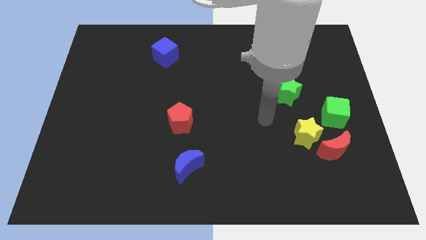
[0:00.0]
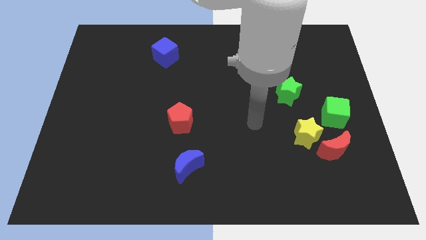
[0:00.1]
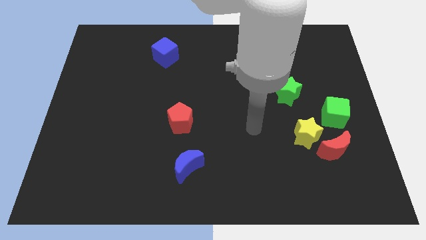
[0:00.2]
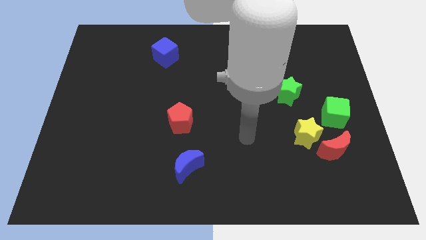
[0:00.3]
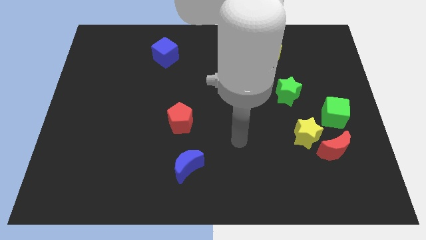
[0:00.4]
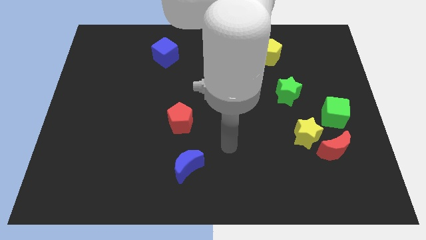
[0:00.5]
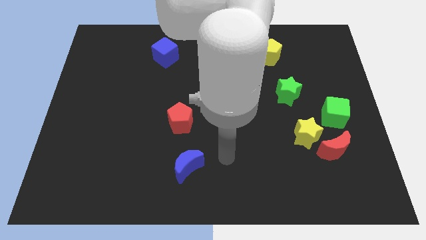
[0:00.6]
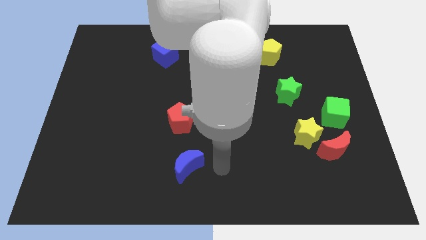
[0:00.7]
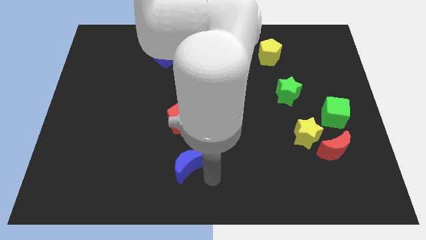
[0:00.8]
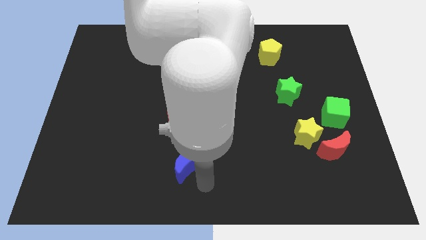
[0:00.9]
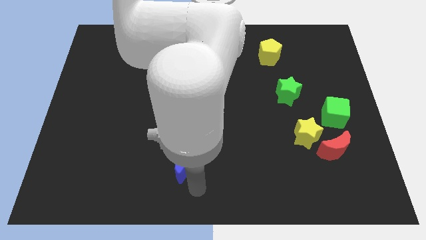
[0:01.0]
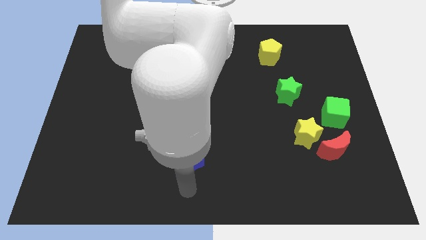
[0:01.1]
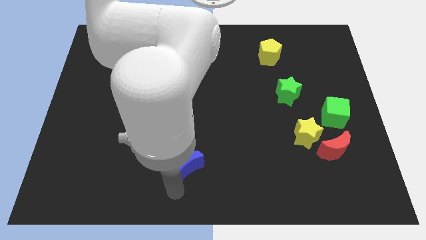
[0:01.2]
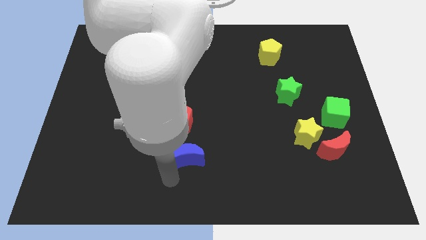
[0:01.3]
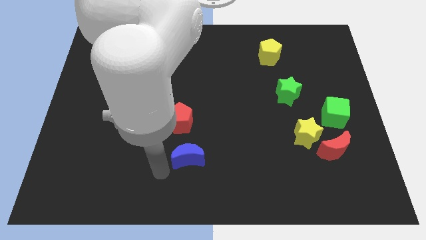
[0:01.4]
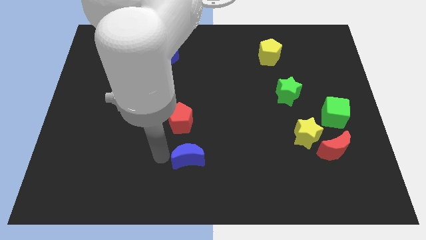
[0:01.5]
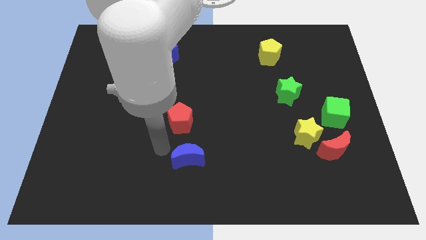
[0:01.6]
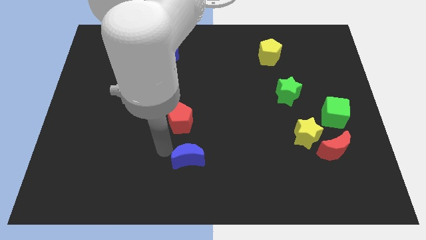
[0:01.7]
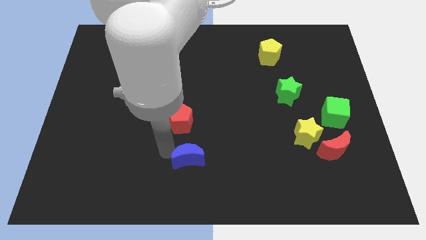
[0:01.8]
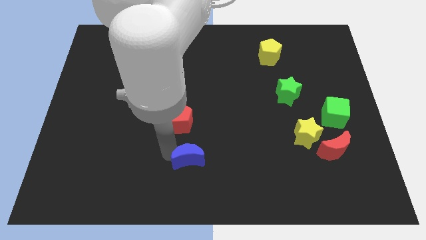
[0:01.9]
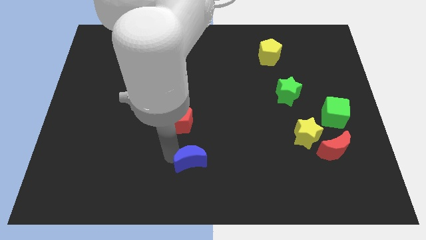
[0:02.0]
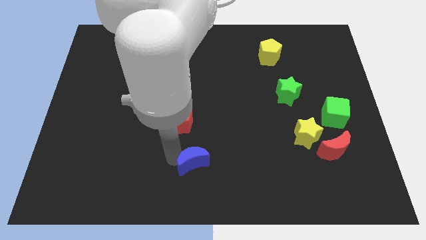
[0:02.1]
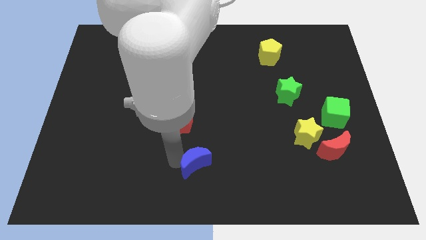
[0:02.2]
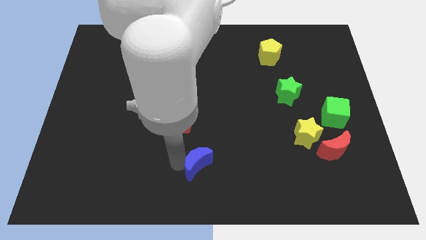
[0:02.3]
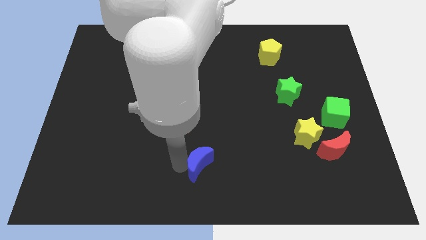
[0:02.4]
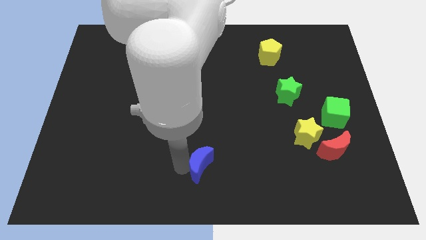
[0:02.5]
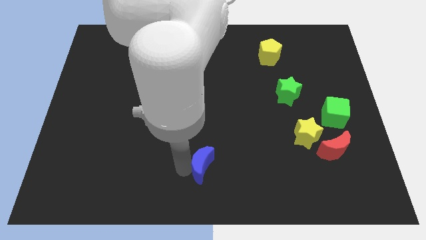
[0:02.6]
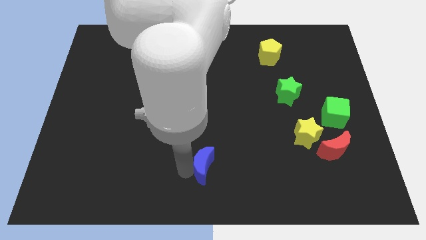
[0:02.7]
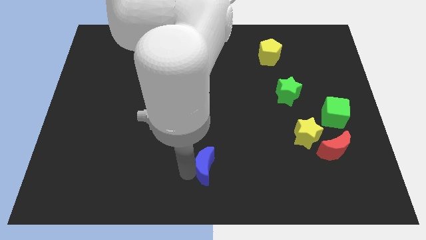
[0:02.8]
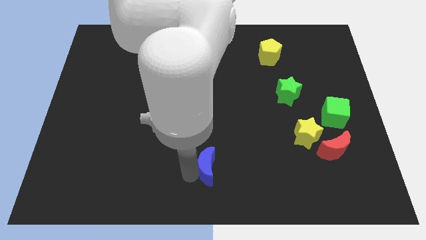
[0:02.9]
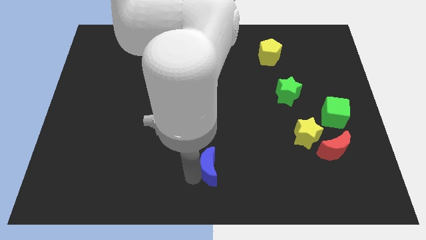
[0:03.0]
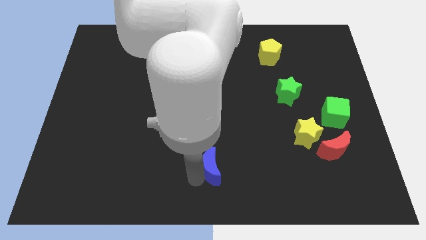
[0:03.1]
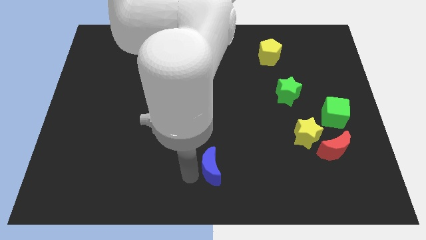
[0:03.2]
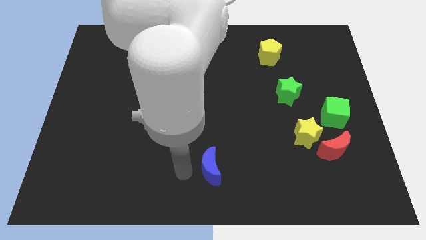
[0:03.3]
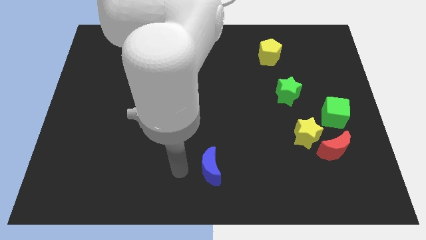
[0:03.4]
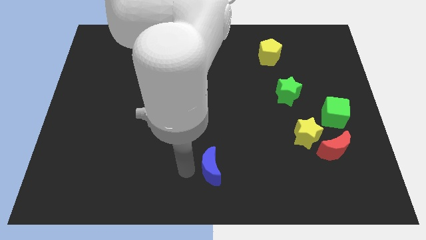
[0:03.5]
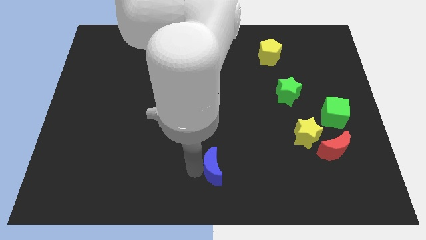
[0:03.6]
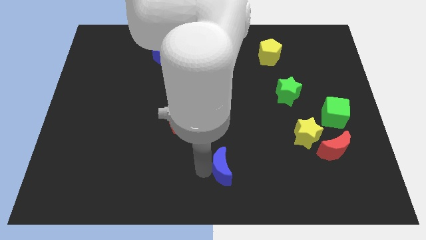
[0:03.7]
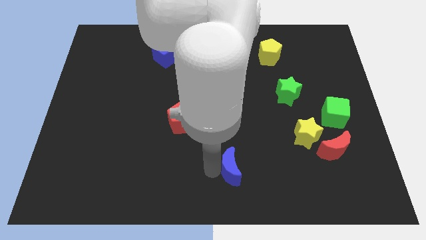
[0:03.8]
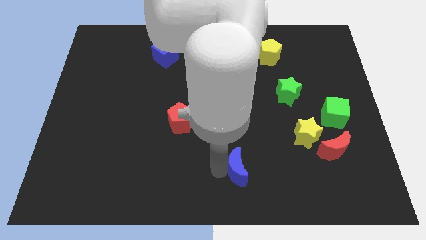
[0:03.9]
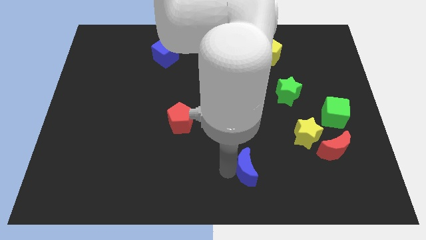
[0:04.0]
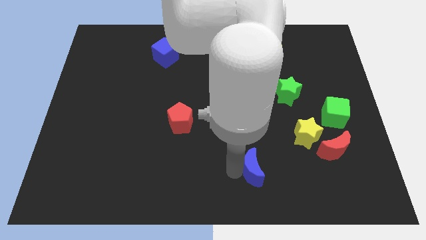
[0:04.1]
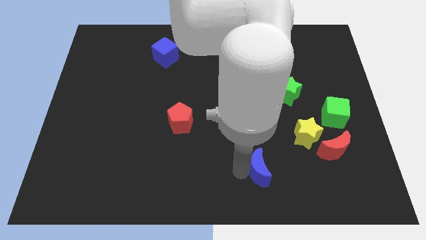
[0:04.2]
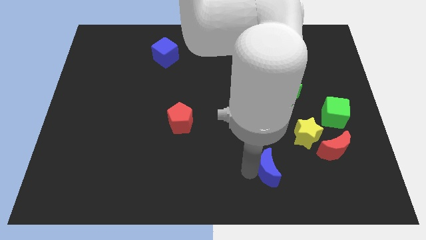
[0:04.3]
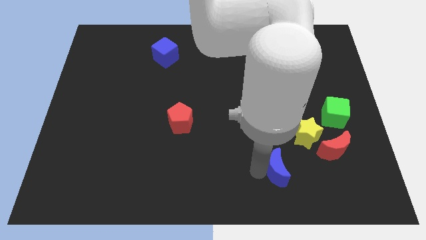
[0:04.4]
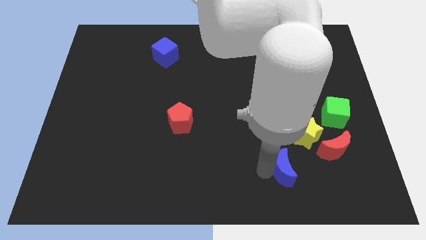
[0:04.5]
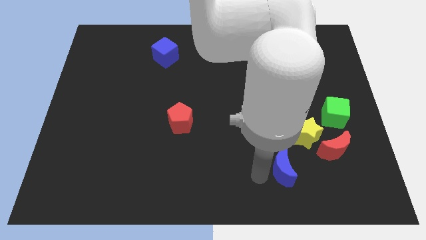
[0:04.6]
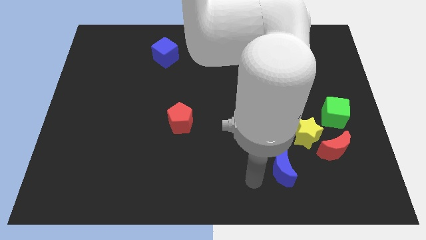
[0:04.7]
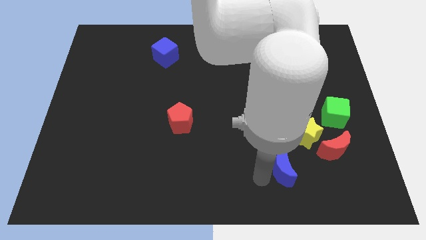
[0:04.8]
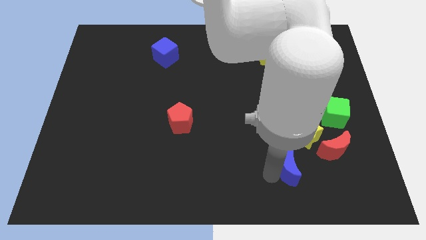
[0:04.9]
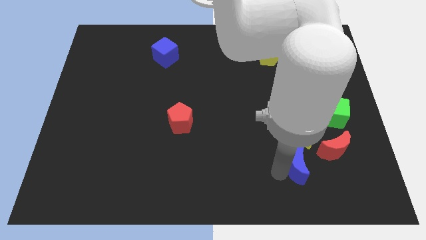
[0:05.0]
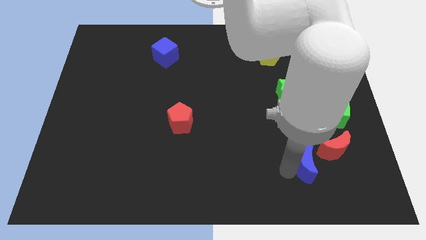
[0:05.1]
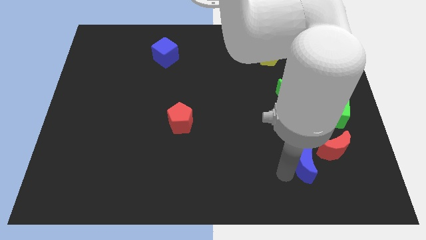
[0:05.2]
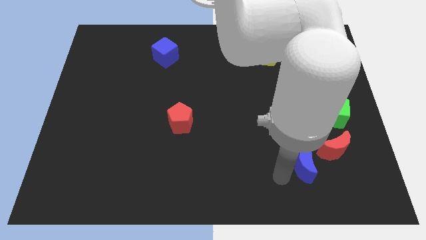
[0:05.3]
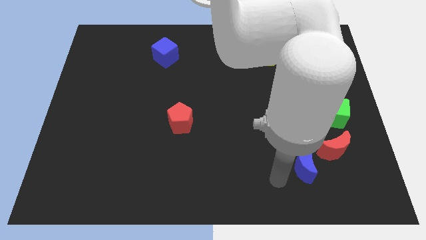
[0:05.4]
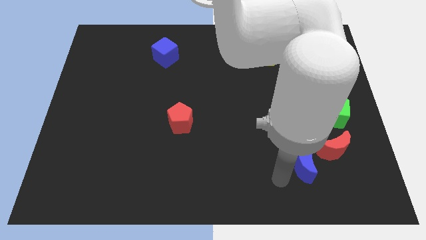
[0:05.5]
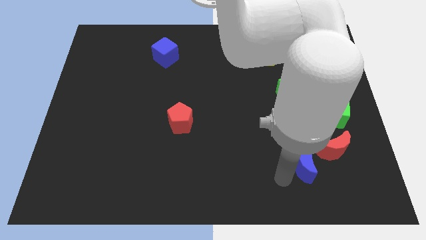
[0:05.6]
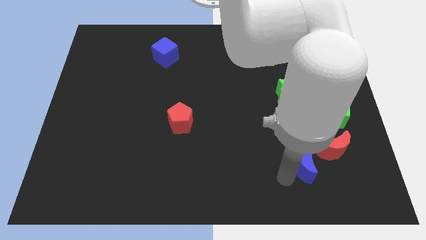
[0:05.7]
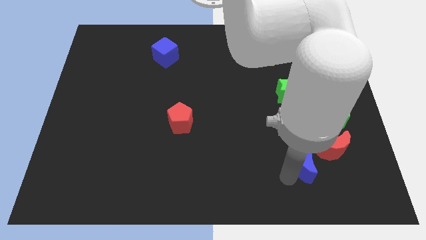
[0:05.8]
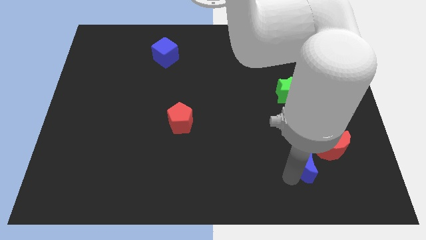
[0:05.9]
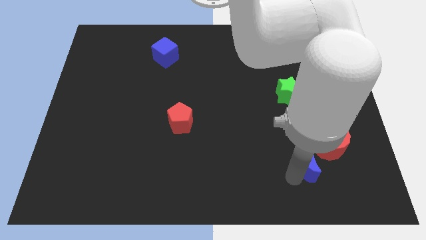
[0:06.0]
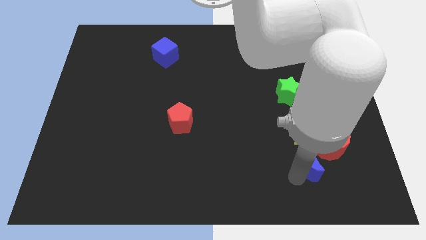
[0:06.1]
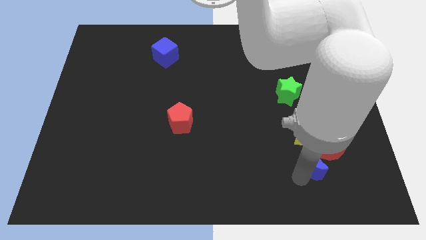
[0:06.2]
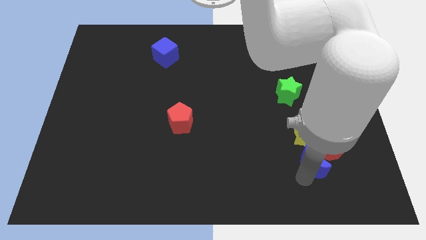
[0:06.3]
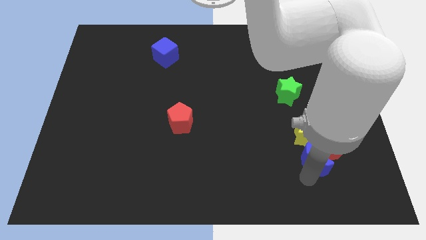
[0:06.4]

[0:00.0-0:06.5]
push the blue moon next to the red moon

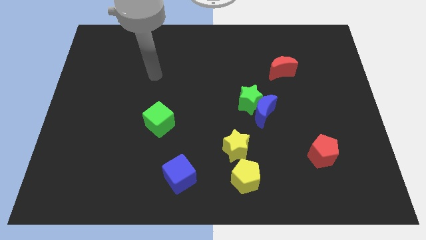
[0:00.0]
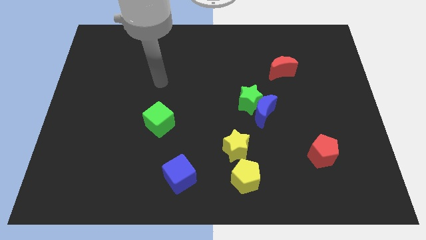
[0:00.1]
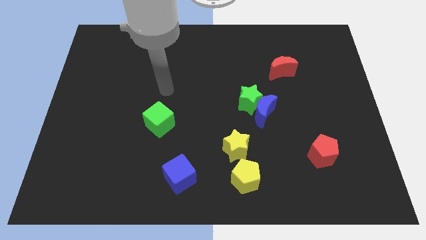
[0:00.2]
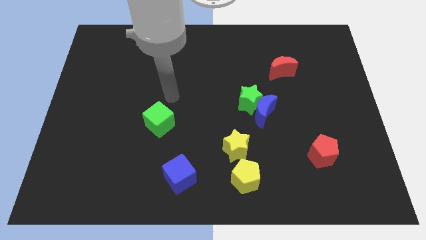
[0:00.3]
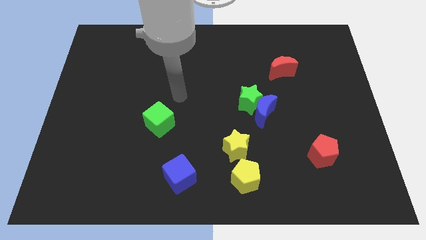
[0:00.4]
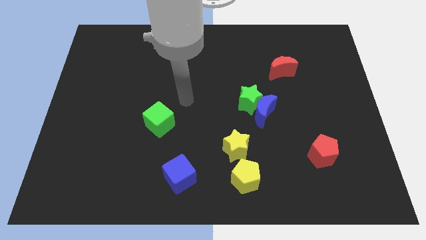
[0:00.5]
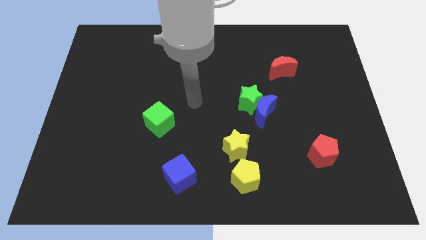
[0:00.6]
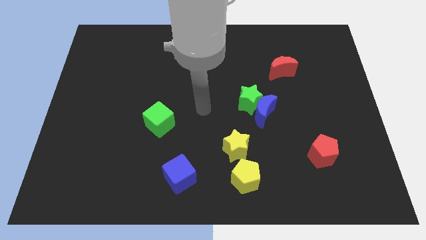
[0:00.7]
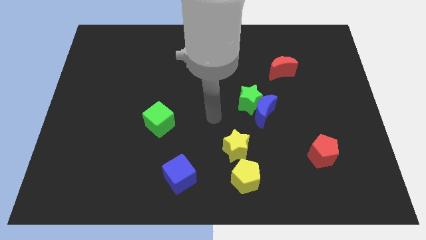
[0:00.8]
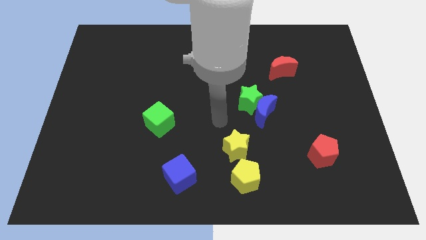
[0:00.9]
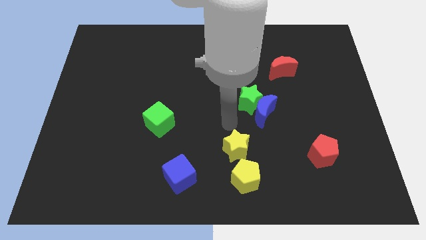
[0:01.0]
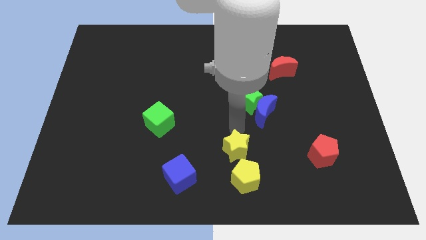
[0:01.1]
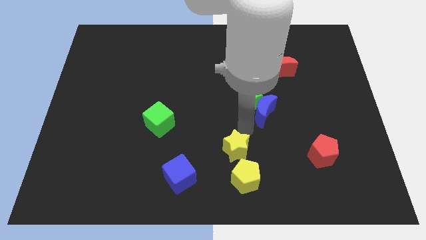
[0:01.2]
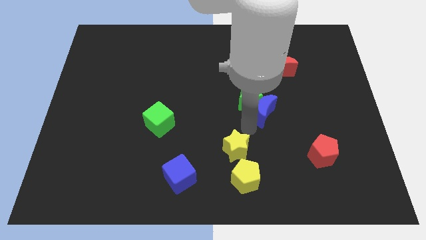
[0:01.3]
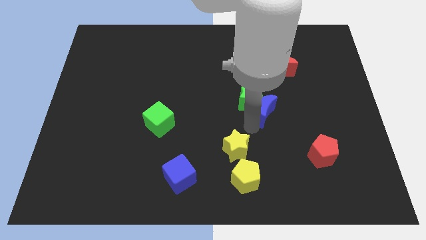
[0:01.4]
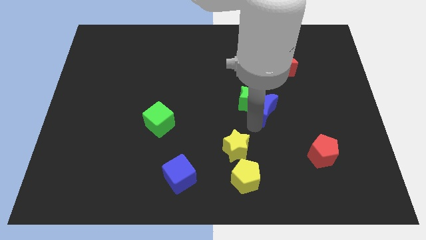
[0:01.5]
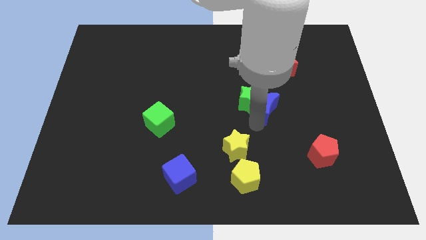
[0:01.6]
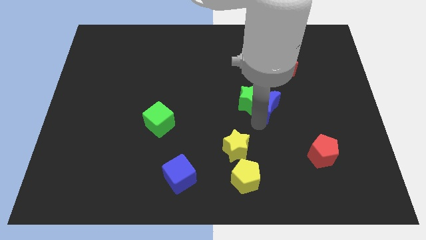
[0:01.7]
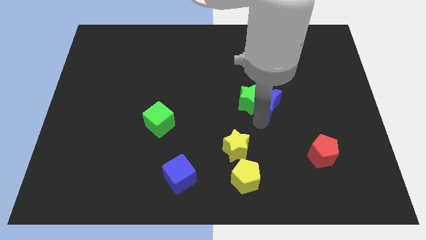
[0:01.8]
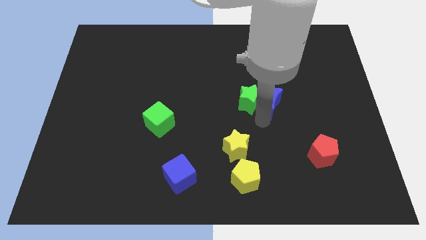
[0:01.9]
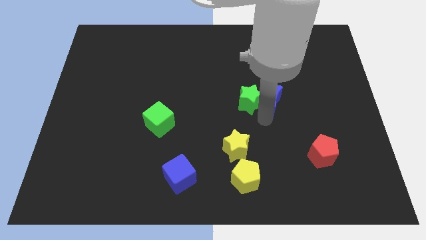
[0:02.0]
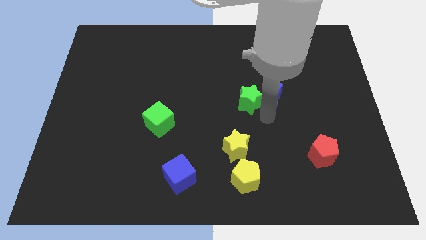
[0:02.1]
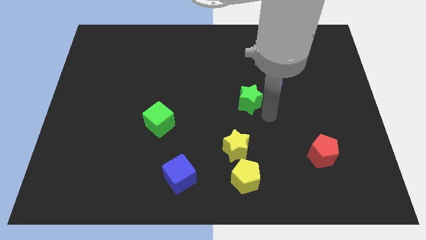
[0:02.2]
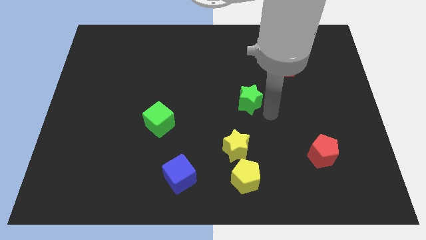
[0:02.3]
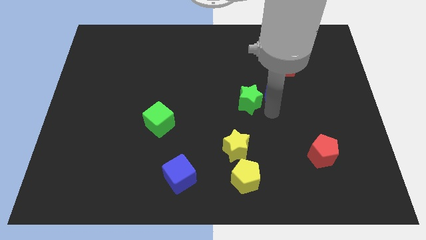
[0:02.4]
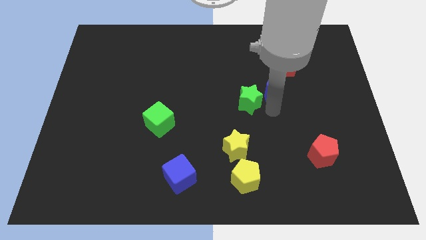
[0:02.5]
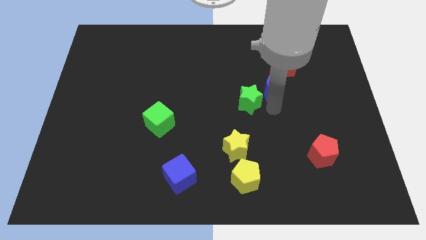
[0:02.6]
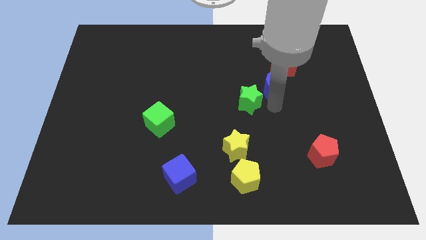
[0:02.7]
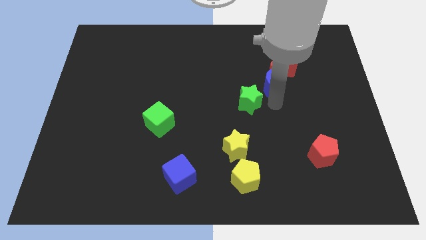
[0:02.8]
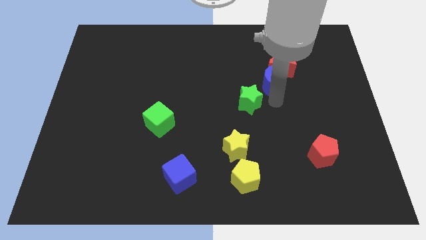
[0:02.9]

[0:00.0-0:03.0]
slide the blue moon close to the red moon
